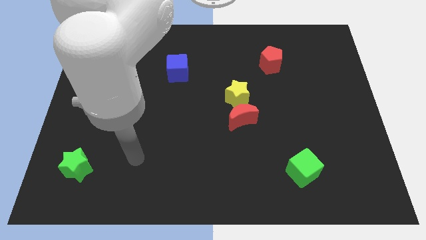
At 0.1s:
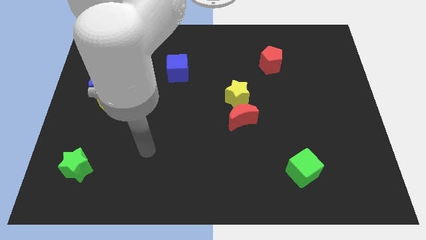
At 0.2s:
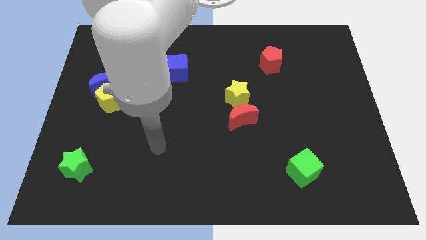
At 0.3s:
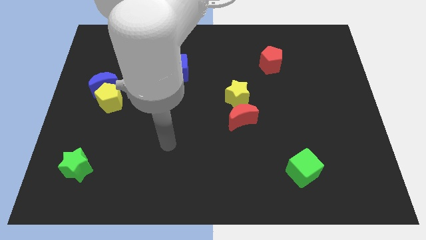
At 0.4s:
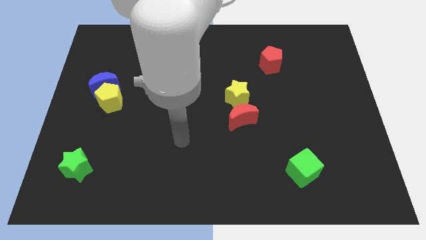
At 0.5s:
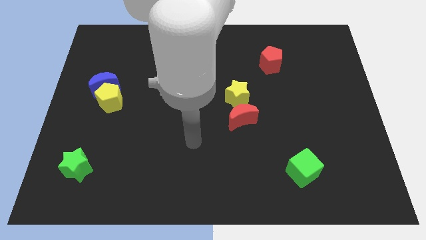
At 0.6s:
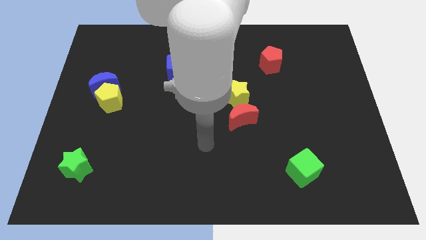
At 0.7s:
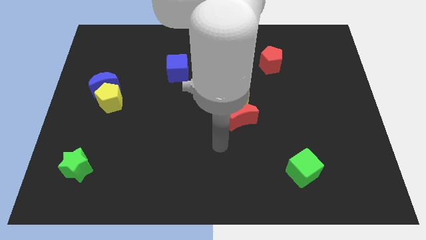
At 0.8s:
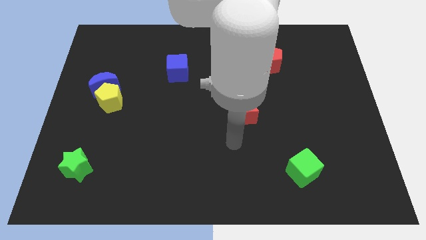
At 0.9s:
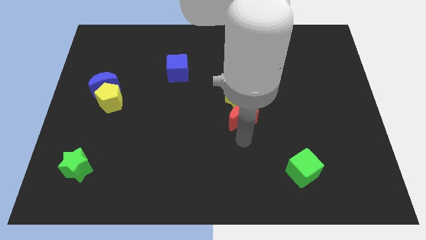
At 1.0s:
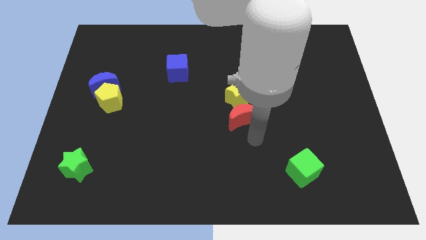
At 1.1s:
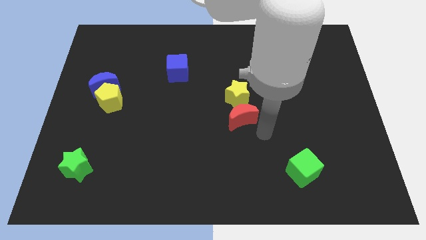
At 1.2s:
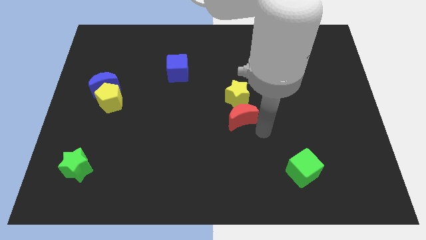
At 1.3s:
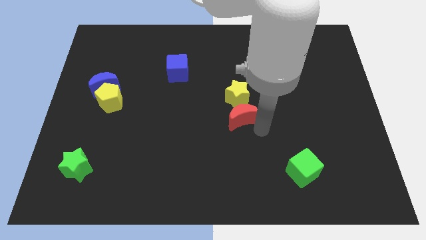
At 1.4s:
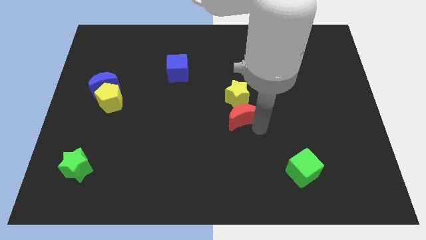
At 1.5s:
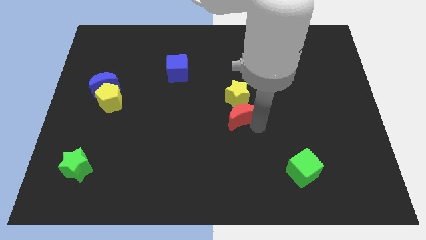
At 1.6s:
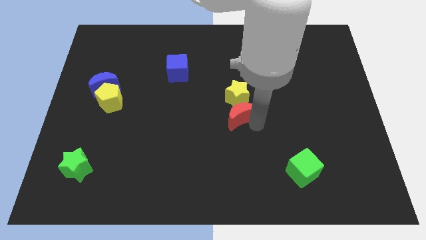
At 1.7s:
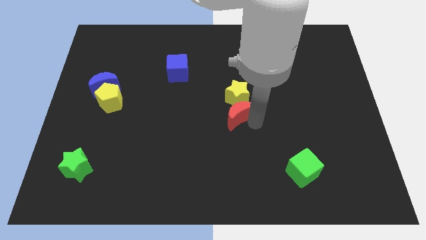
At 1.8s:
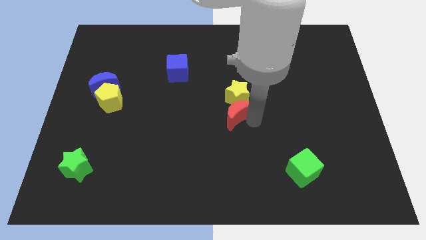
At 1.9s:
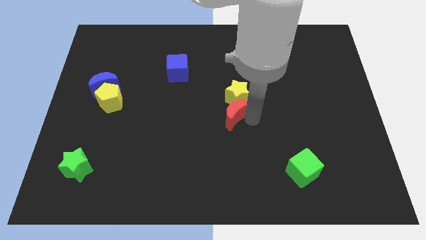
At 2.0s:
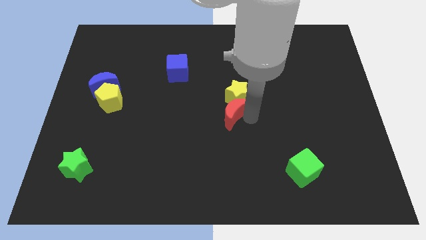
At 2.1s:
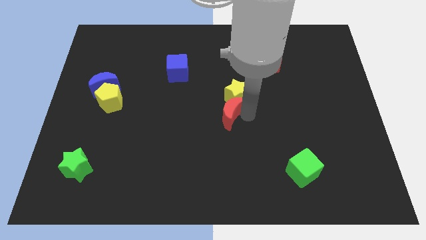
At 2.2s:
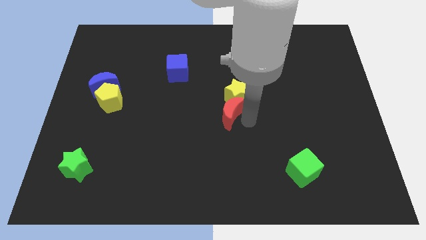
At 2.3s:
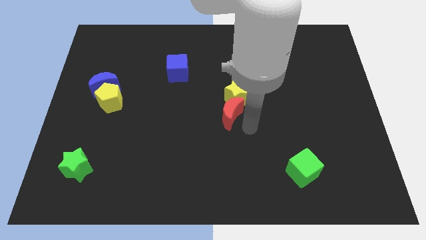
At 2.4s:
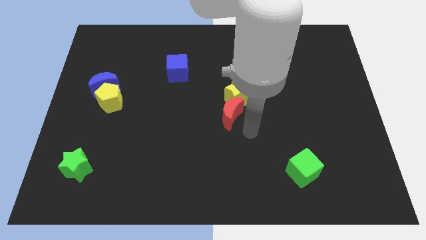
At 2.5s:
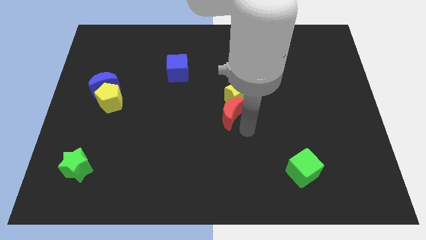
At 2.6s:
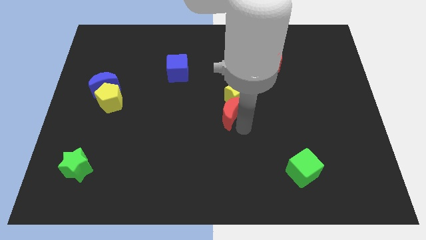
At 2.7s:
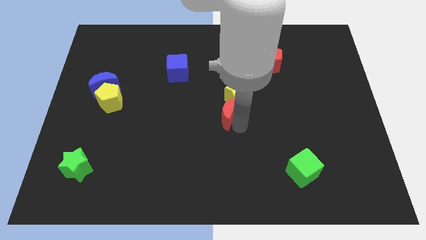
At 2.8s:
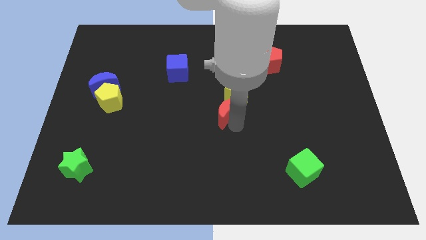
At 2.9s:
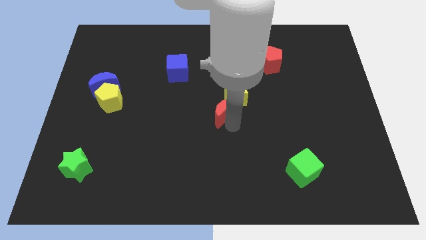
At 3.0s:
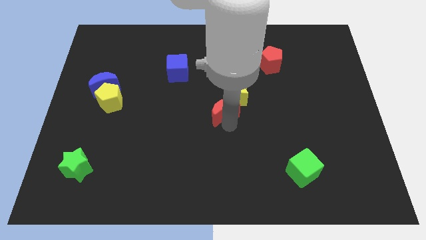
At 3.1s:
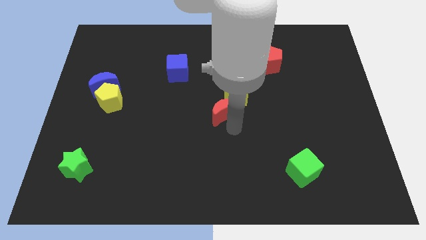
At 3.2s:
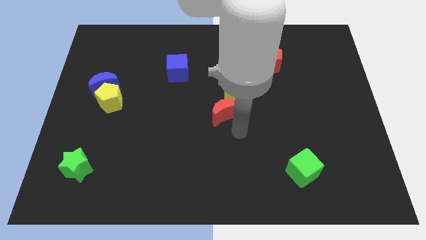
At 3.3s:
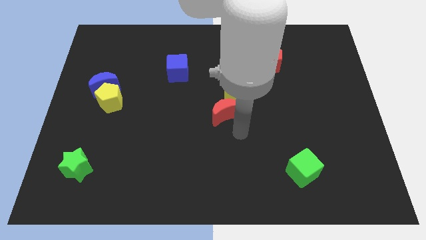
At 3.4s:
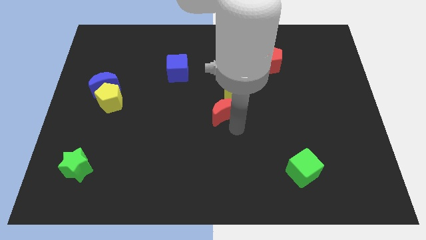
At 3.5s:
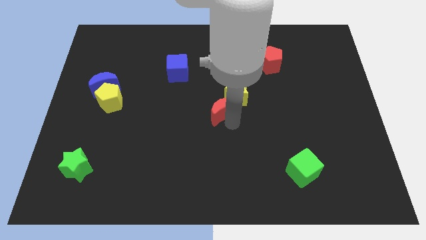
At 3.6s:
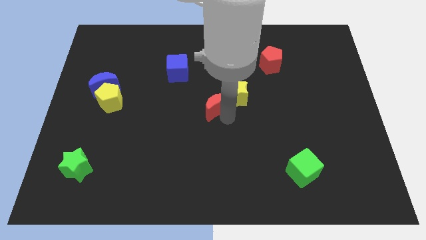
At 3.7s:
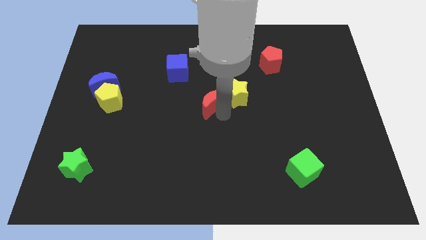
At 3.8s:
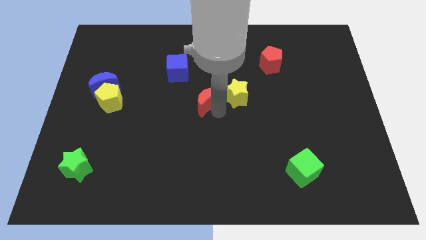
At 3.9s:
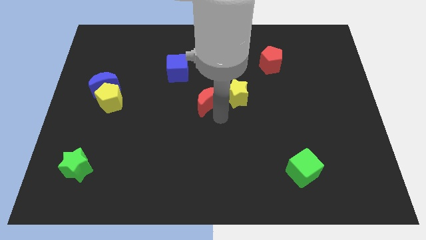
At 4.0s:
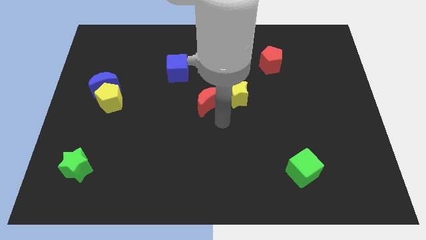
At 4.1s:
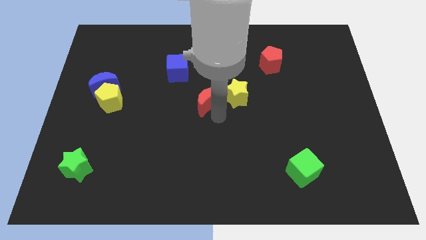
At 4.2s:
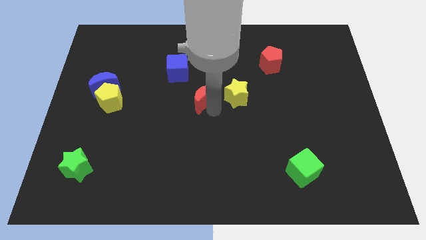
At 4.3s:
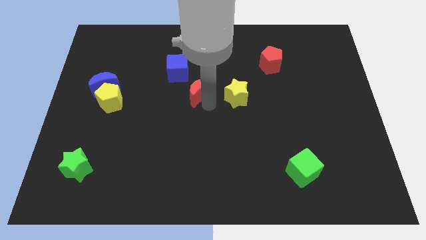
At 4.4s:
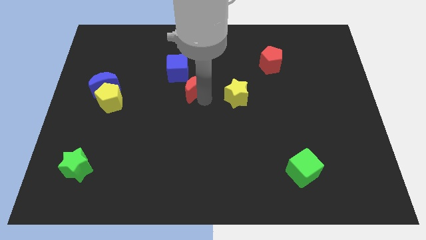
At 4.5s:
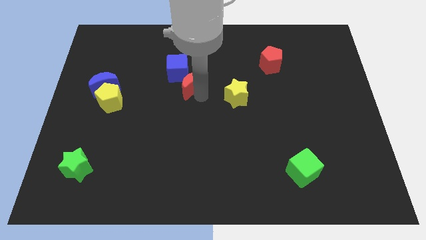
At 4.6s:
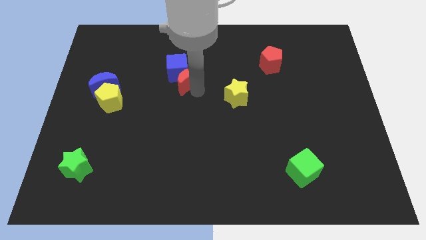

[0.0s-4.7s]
push the red moon next to the blue cube

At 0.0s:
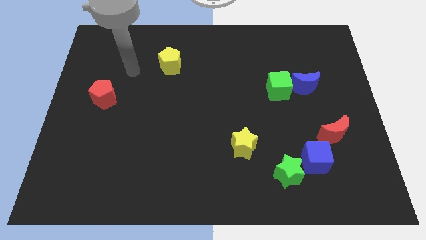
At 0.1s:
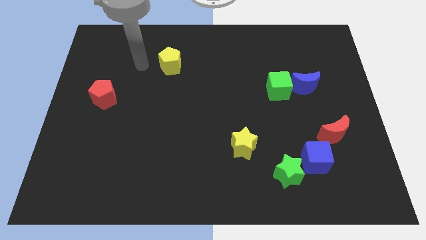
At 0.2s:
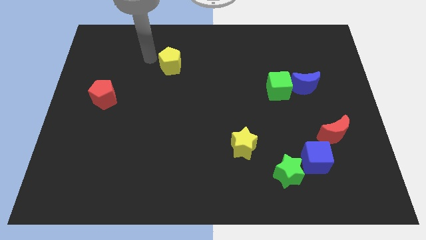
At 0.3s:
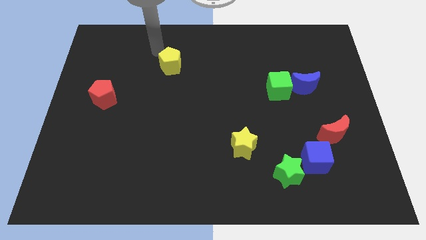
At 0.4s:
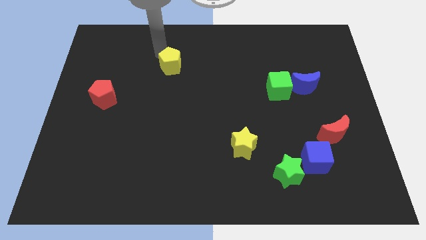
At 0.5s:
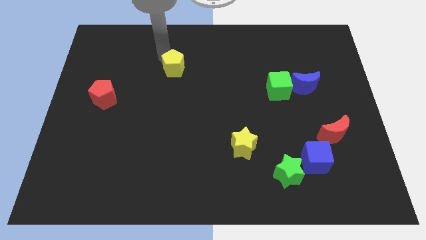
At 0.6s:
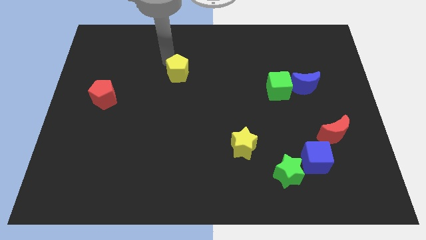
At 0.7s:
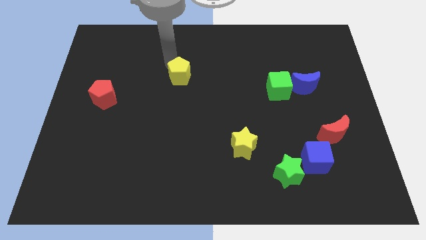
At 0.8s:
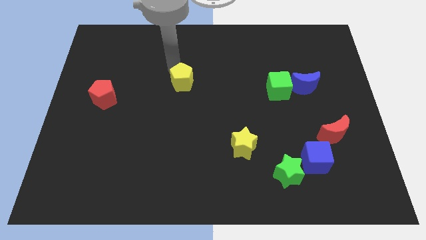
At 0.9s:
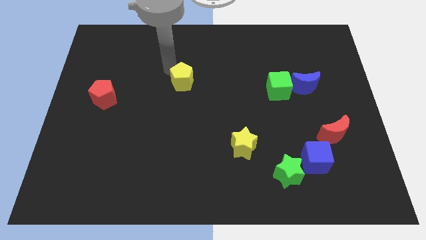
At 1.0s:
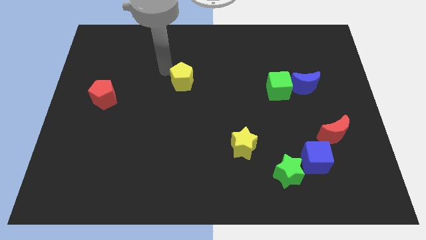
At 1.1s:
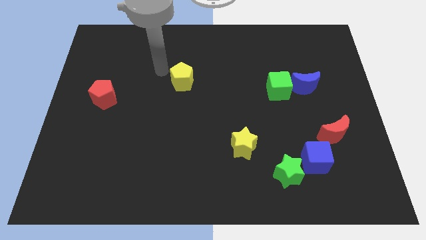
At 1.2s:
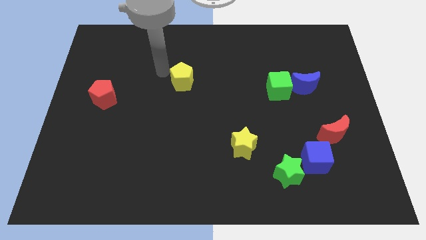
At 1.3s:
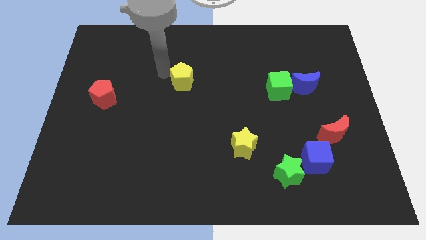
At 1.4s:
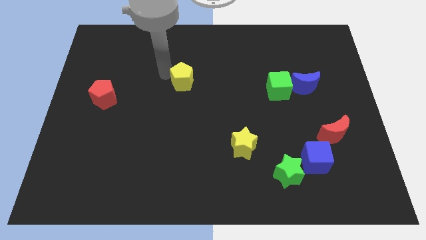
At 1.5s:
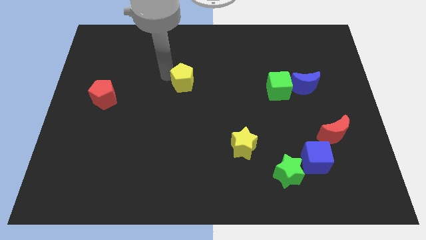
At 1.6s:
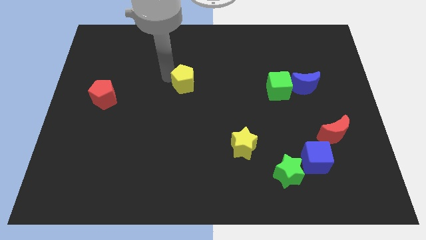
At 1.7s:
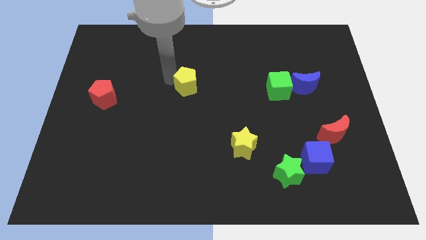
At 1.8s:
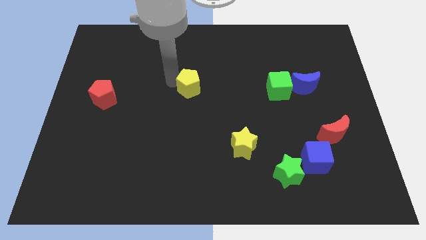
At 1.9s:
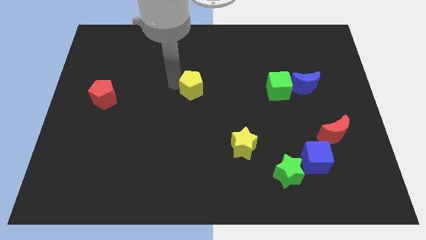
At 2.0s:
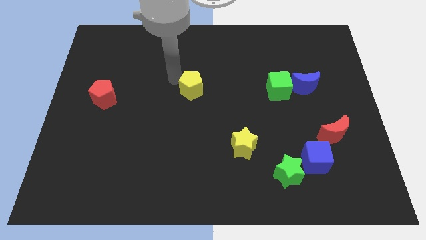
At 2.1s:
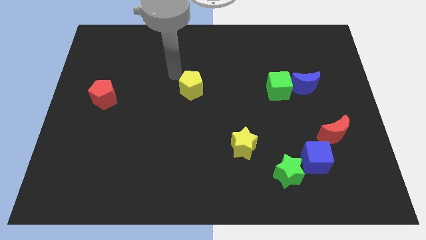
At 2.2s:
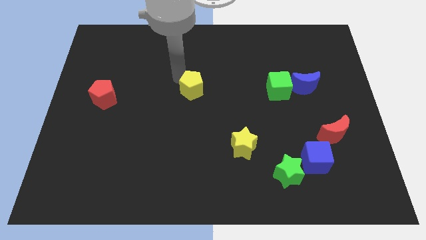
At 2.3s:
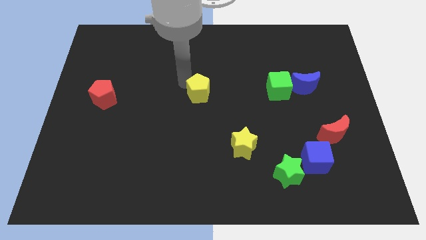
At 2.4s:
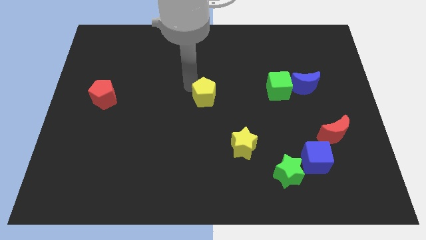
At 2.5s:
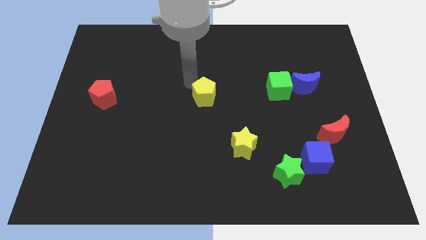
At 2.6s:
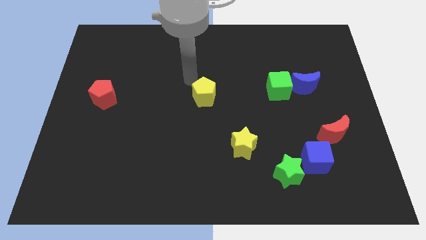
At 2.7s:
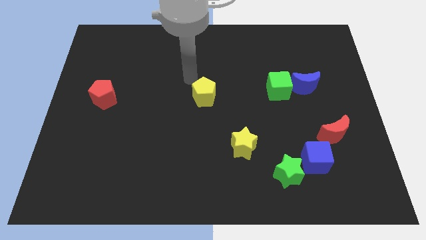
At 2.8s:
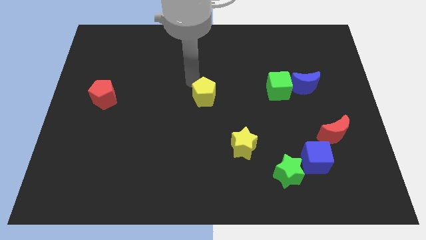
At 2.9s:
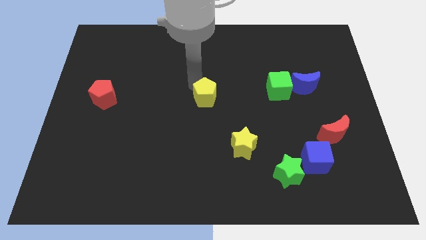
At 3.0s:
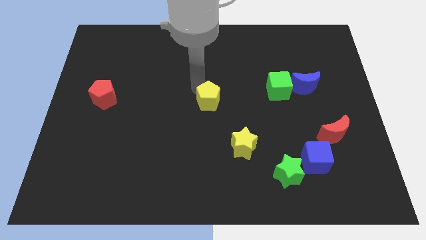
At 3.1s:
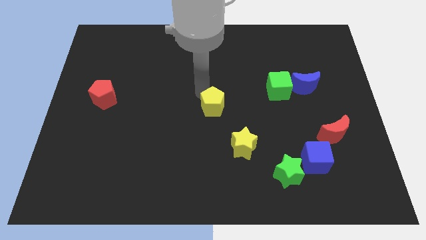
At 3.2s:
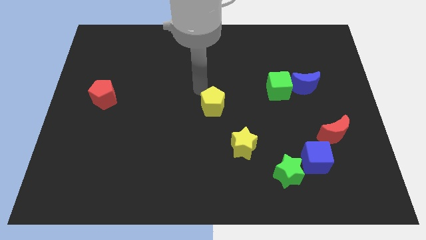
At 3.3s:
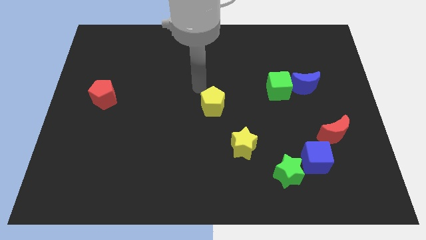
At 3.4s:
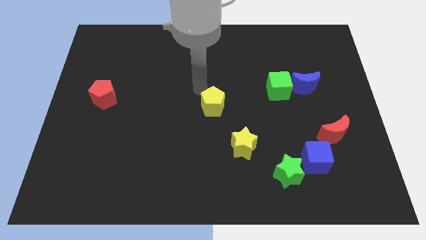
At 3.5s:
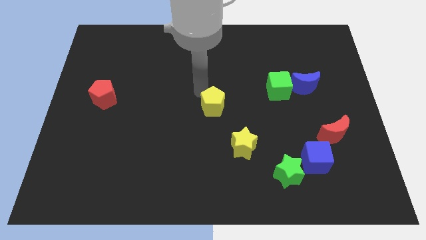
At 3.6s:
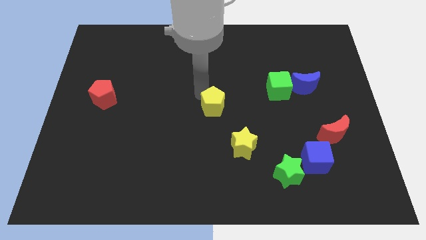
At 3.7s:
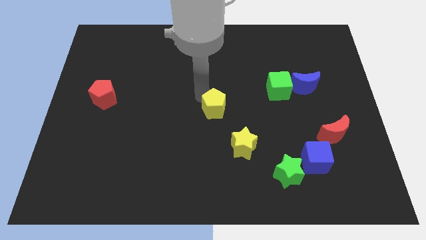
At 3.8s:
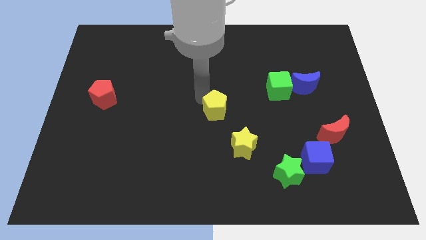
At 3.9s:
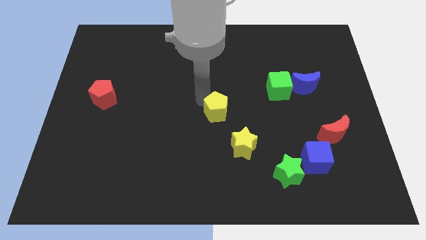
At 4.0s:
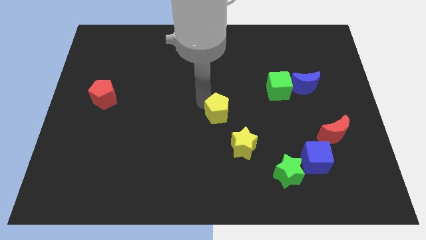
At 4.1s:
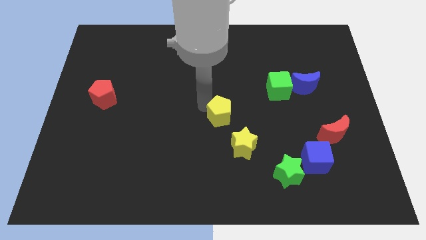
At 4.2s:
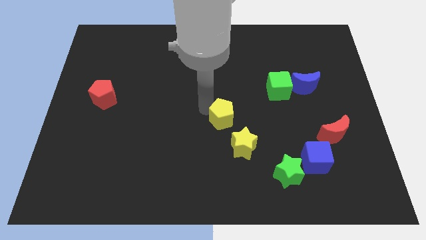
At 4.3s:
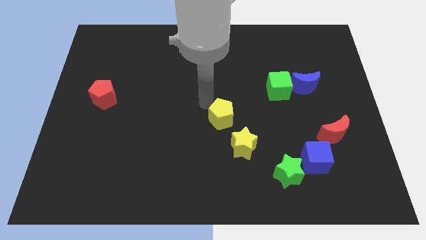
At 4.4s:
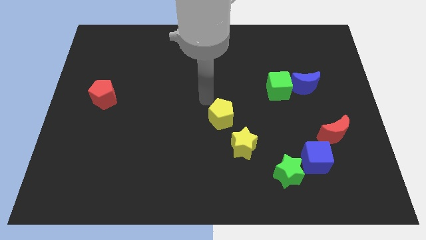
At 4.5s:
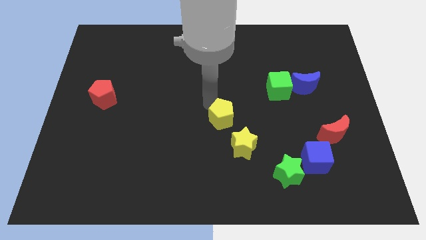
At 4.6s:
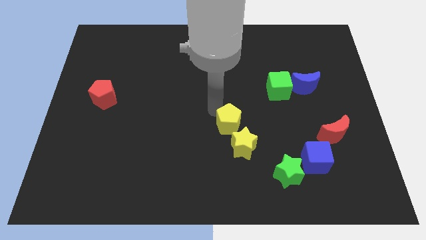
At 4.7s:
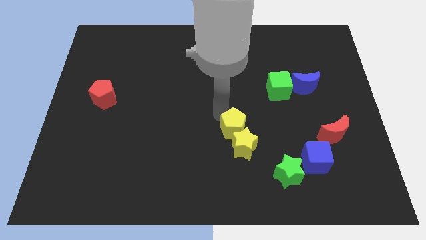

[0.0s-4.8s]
push the yellow pentagon to the yellow star
